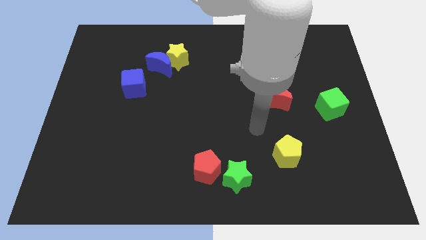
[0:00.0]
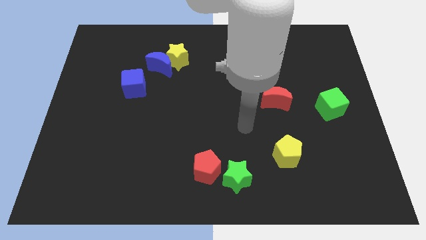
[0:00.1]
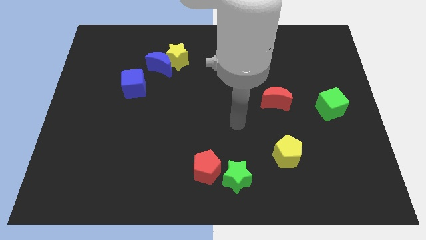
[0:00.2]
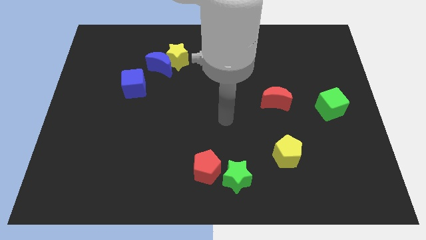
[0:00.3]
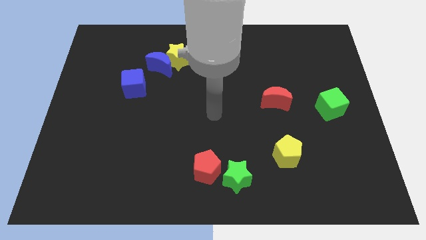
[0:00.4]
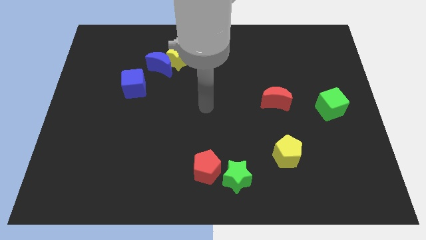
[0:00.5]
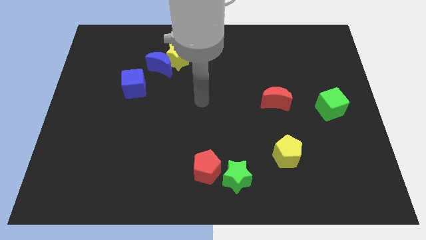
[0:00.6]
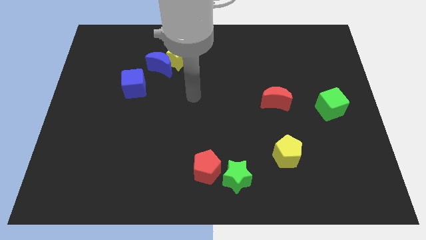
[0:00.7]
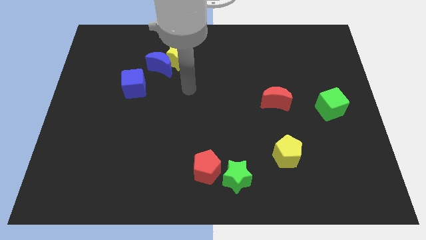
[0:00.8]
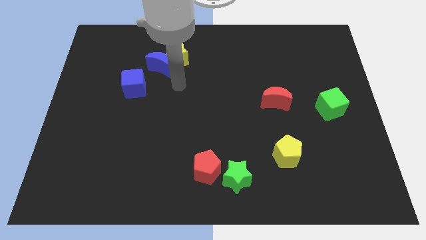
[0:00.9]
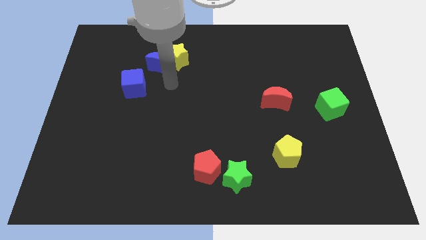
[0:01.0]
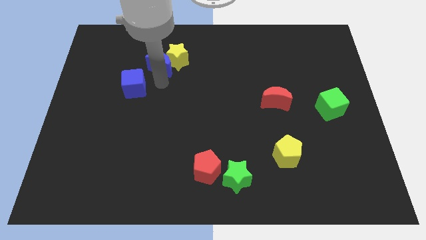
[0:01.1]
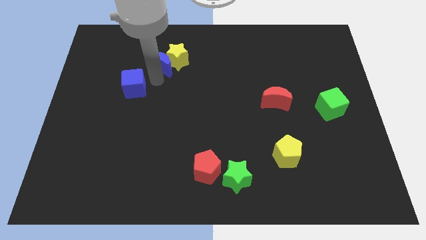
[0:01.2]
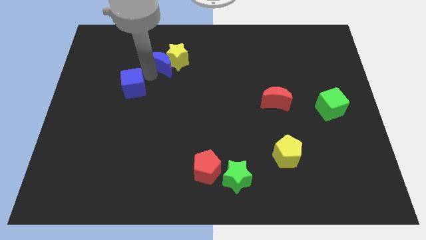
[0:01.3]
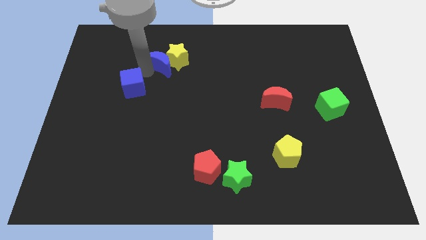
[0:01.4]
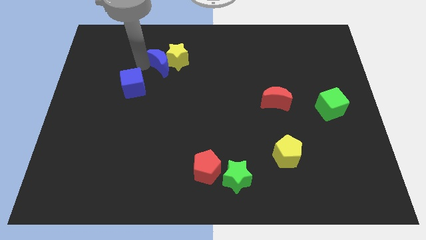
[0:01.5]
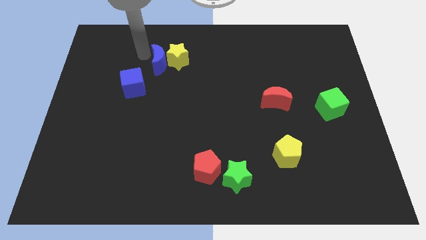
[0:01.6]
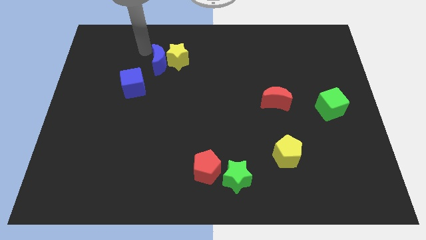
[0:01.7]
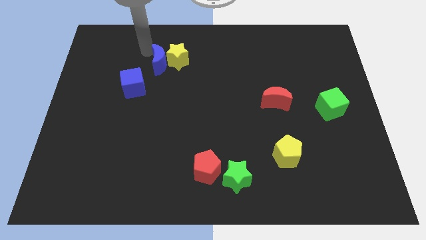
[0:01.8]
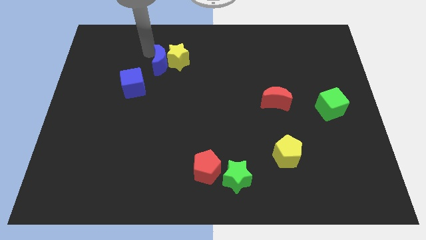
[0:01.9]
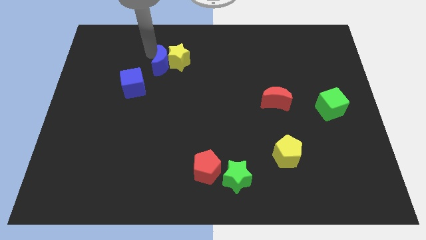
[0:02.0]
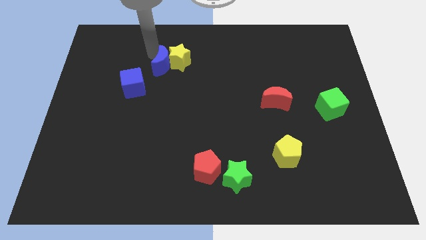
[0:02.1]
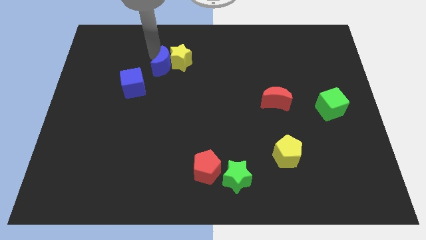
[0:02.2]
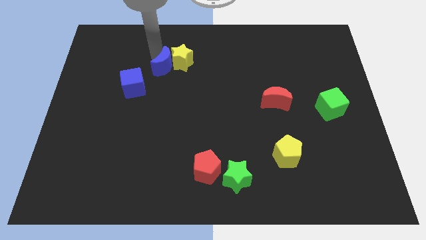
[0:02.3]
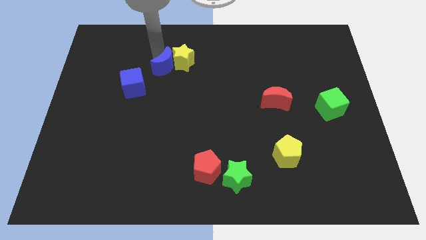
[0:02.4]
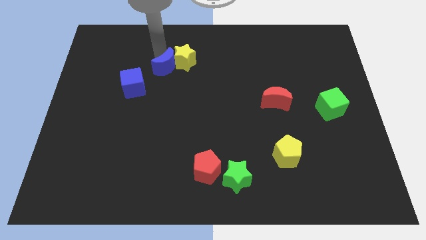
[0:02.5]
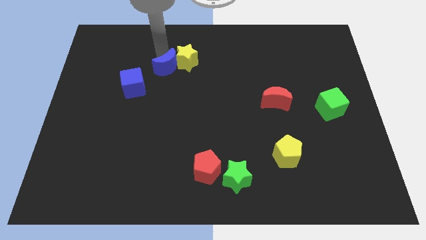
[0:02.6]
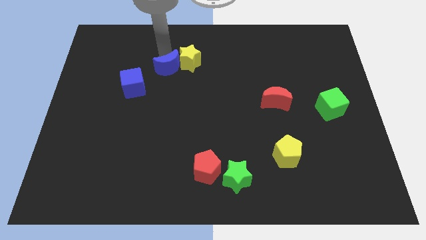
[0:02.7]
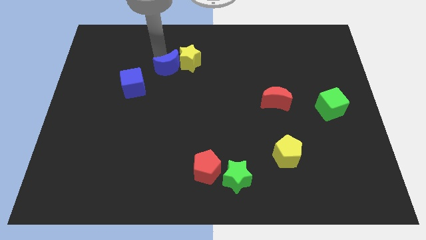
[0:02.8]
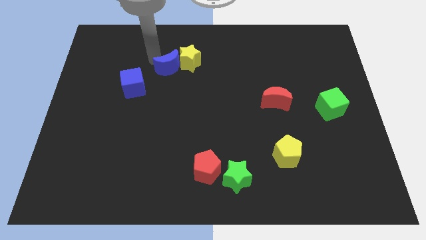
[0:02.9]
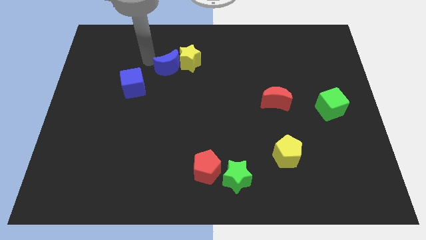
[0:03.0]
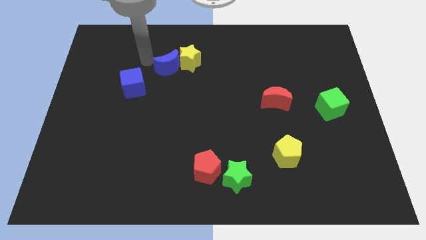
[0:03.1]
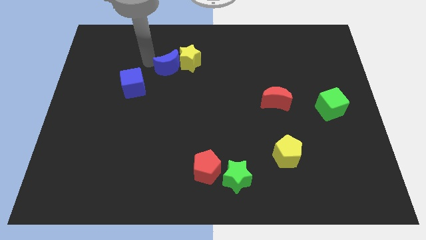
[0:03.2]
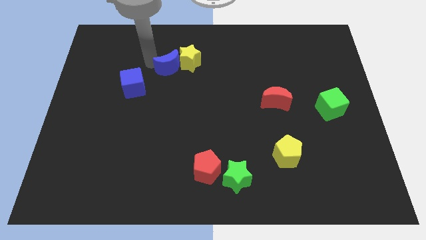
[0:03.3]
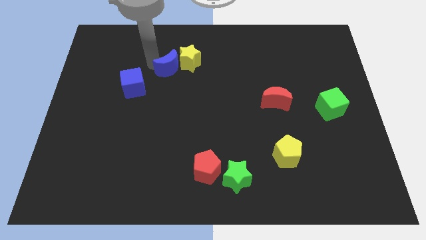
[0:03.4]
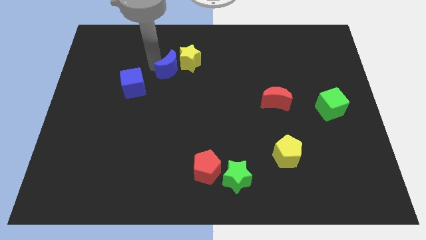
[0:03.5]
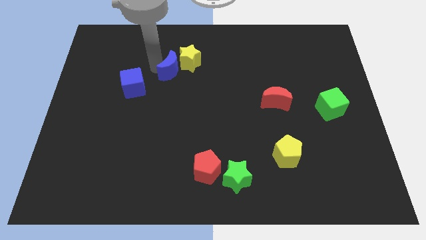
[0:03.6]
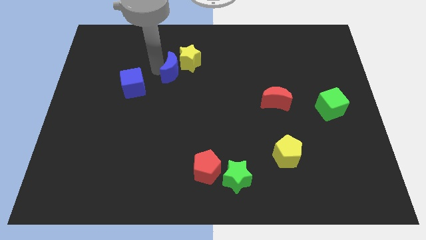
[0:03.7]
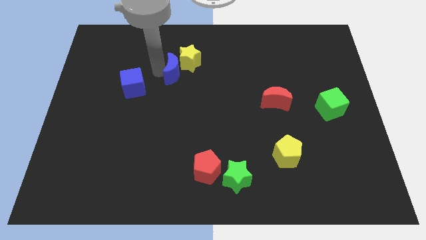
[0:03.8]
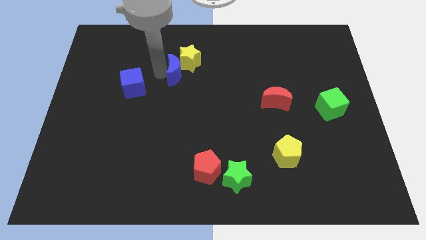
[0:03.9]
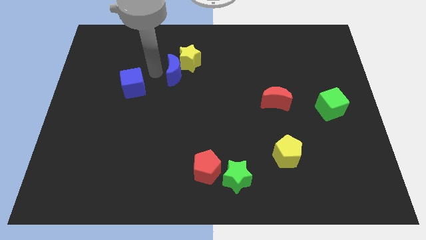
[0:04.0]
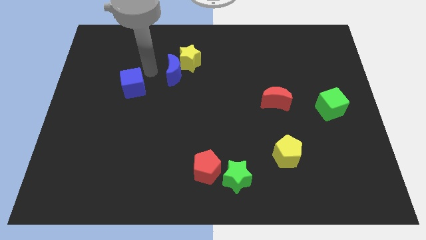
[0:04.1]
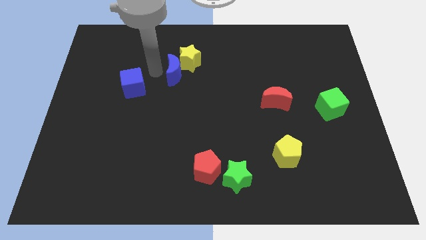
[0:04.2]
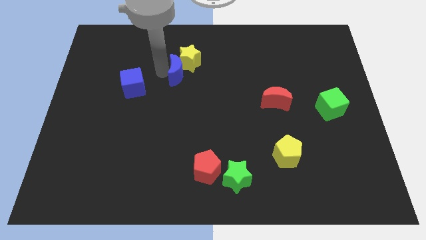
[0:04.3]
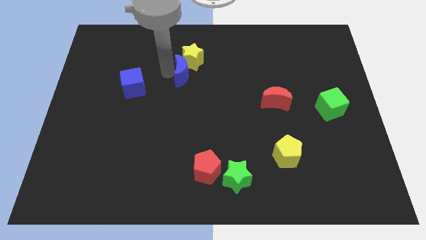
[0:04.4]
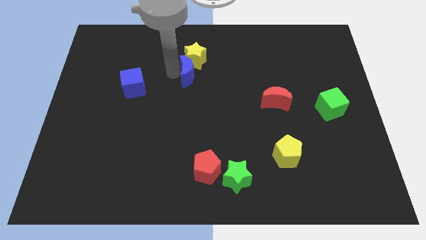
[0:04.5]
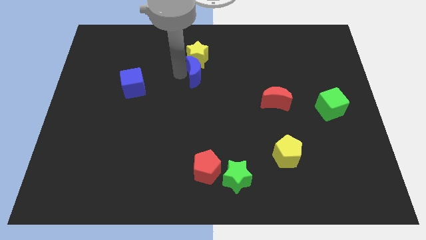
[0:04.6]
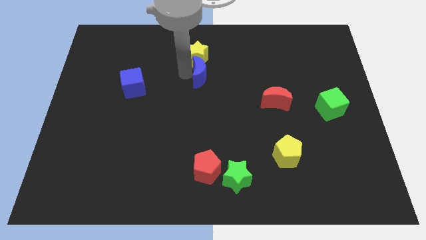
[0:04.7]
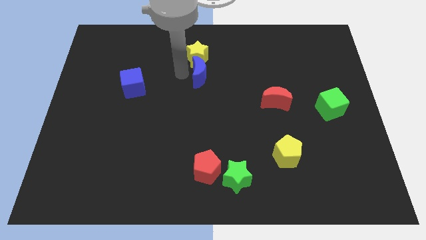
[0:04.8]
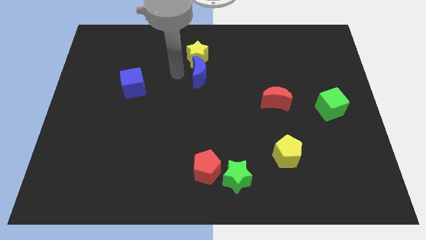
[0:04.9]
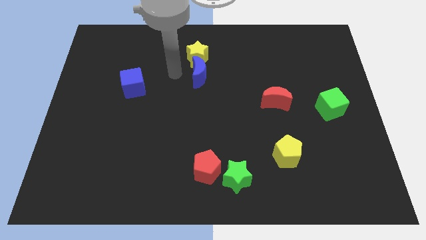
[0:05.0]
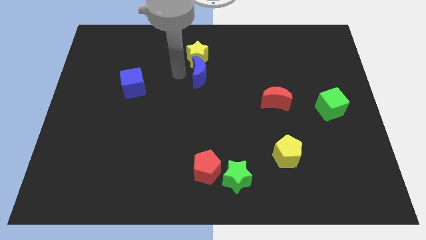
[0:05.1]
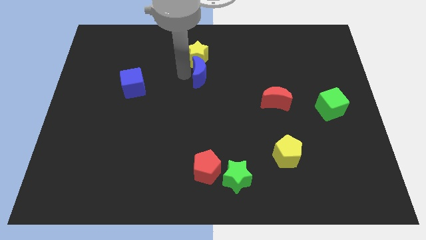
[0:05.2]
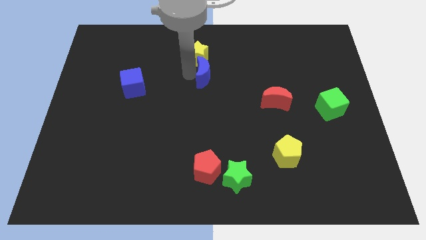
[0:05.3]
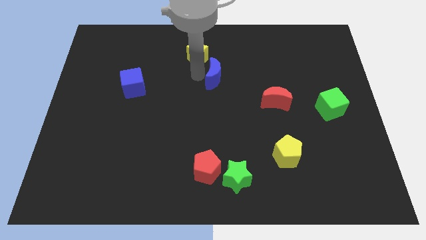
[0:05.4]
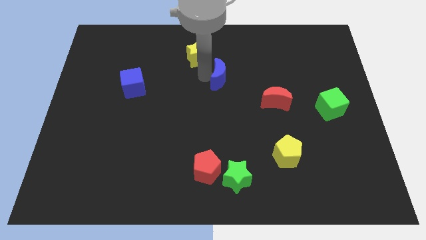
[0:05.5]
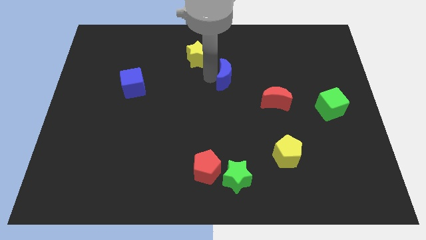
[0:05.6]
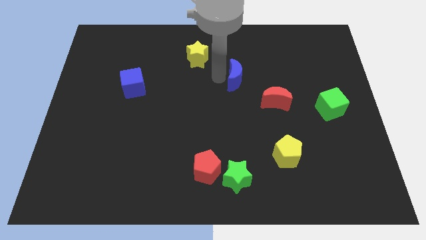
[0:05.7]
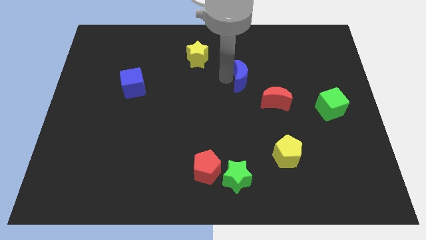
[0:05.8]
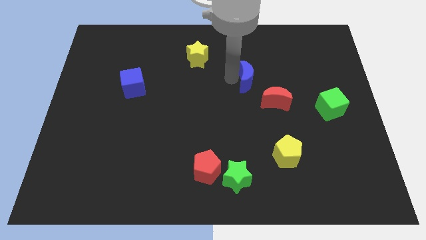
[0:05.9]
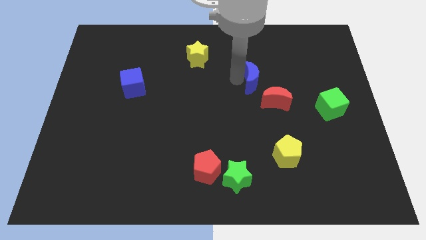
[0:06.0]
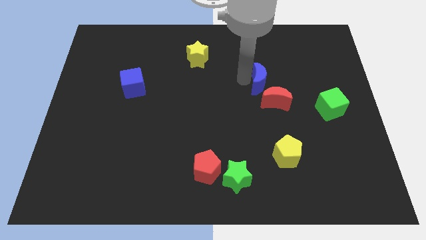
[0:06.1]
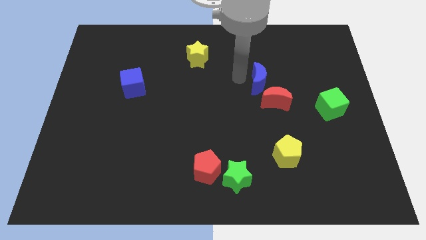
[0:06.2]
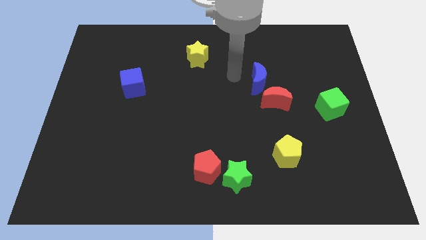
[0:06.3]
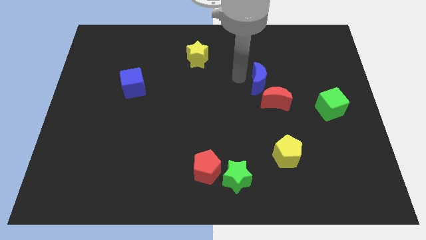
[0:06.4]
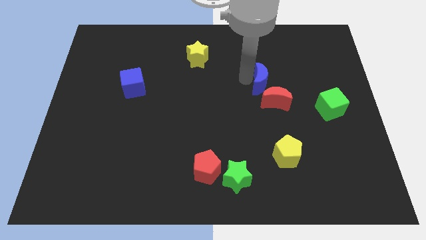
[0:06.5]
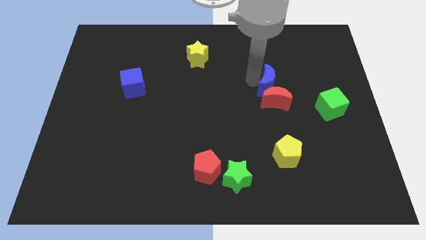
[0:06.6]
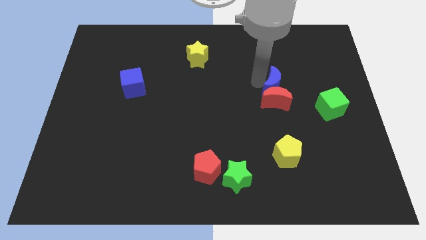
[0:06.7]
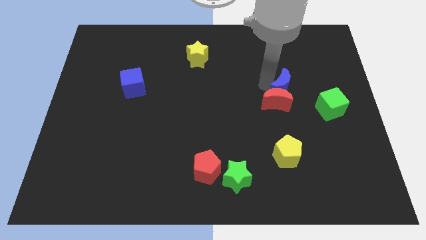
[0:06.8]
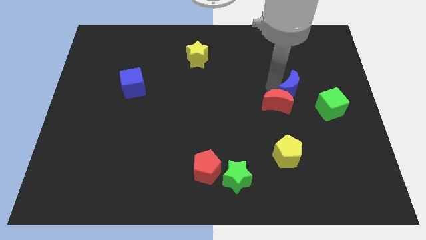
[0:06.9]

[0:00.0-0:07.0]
put the blue moon to the top left of the green cube

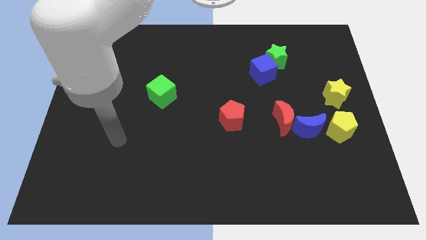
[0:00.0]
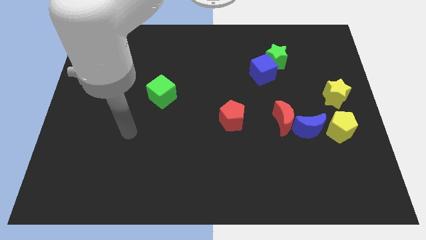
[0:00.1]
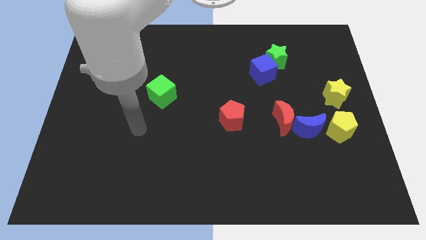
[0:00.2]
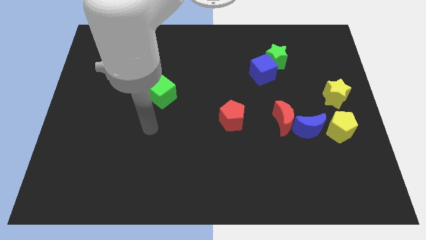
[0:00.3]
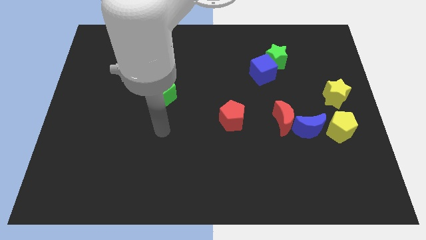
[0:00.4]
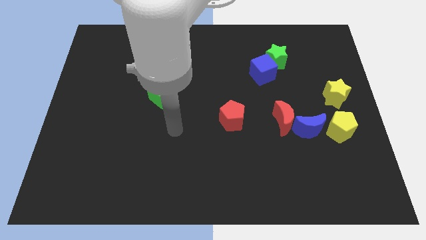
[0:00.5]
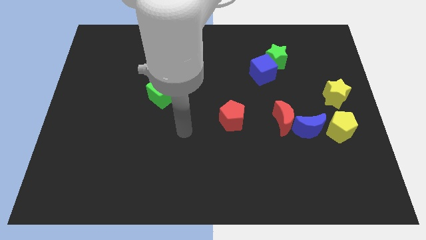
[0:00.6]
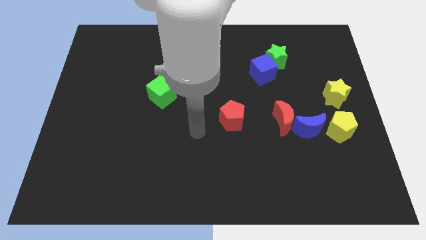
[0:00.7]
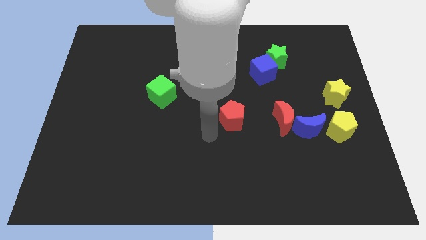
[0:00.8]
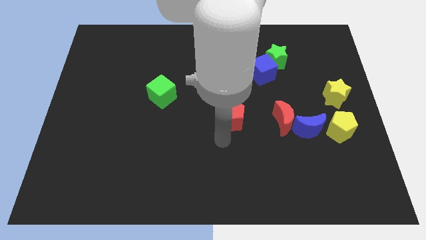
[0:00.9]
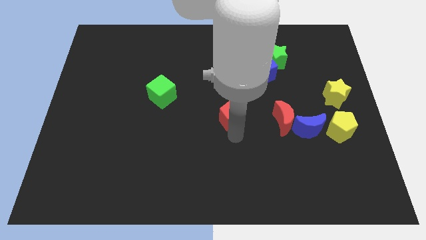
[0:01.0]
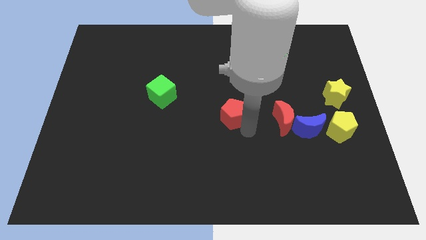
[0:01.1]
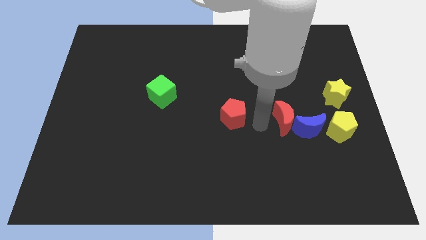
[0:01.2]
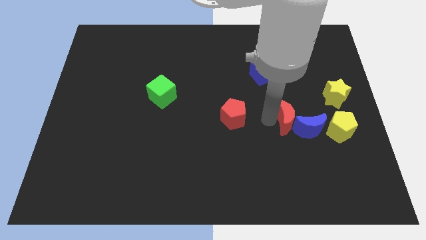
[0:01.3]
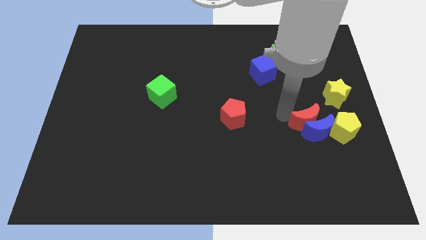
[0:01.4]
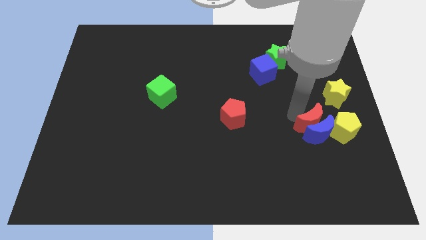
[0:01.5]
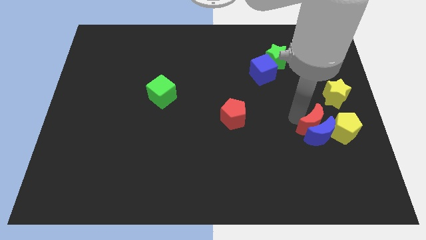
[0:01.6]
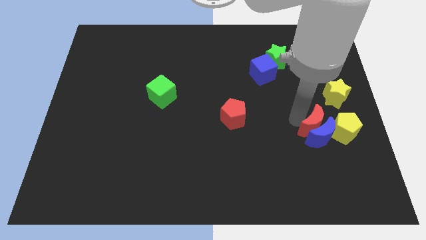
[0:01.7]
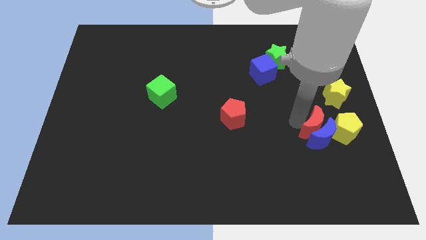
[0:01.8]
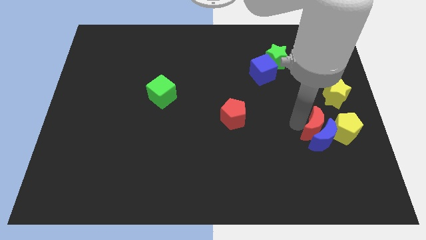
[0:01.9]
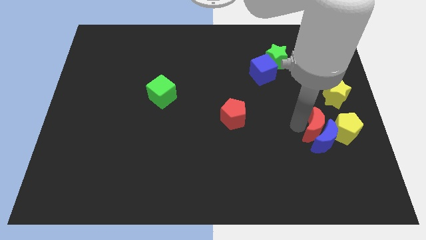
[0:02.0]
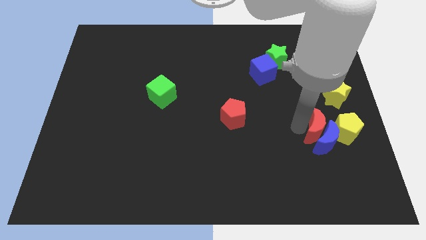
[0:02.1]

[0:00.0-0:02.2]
put the blue moon to the bottom side of the yellow pentagon
